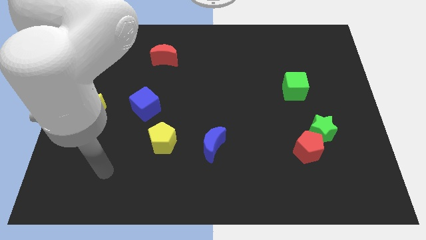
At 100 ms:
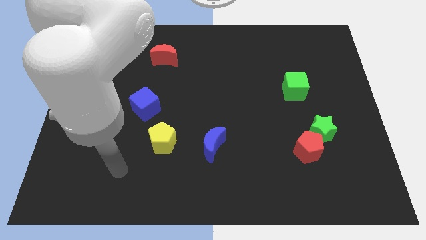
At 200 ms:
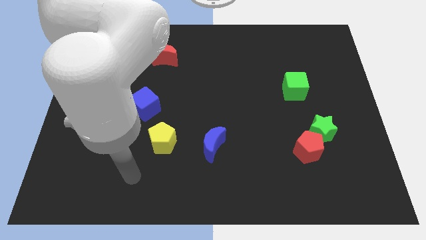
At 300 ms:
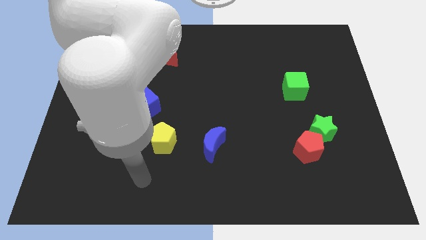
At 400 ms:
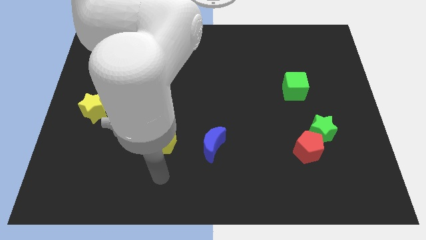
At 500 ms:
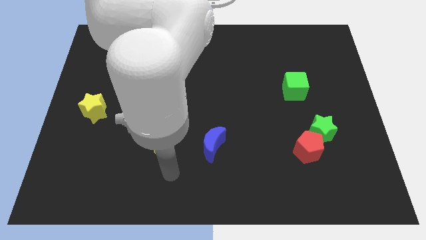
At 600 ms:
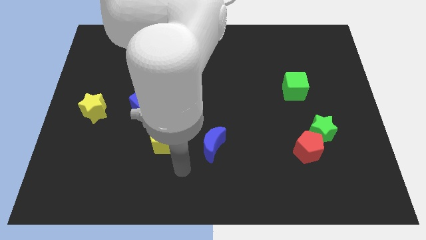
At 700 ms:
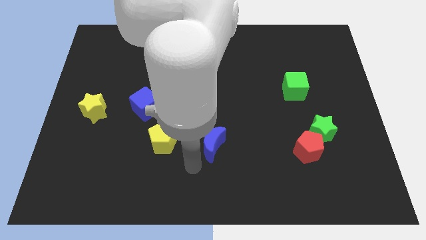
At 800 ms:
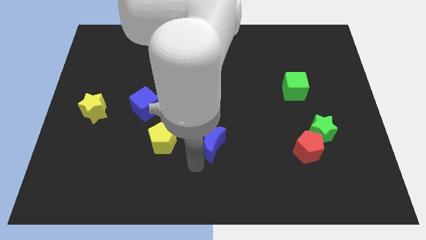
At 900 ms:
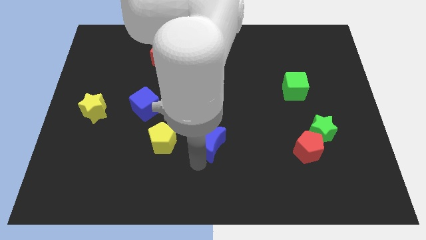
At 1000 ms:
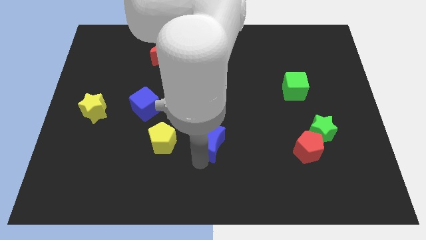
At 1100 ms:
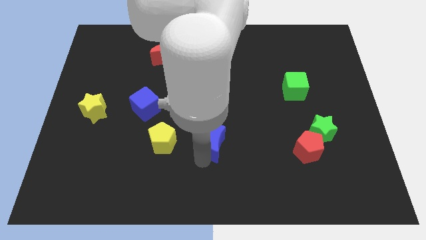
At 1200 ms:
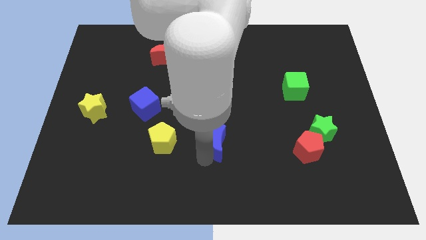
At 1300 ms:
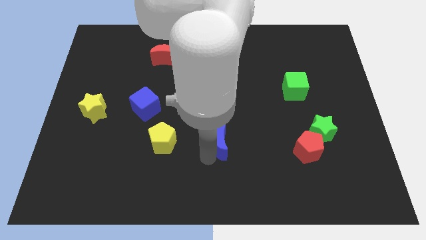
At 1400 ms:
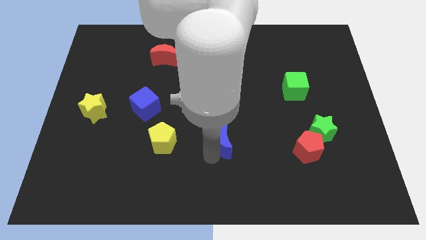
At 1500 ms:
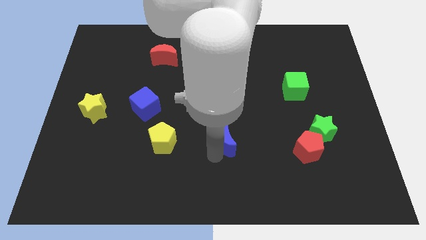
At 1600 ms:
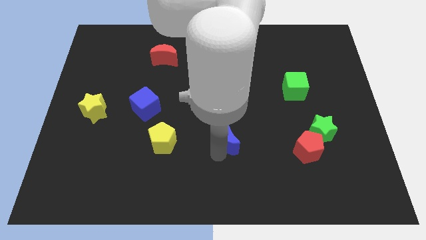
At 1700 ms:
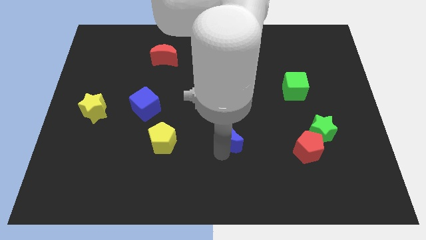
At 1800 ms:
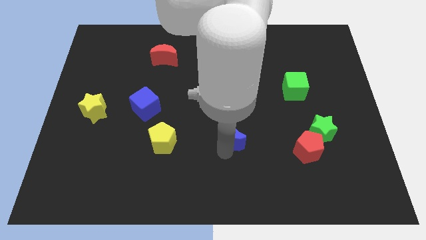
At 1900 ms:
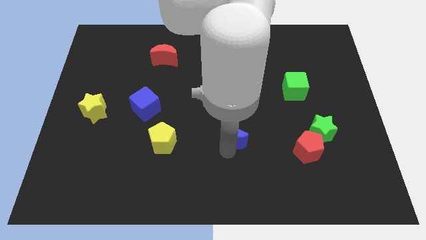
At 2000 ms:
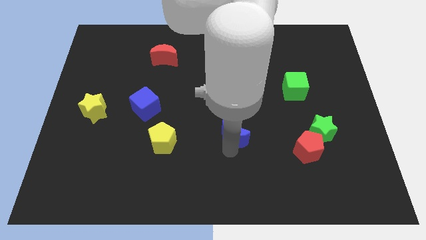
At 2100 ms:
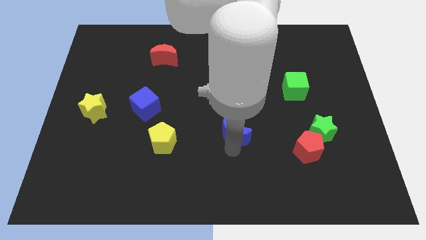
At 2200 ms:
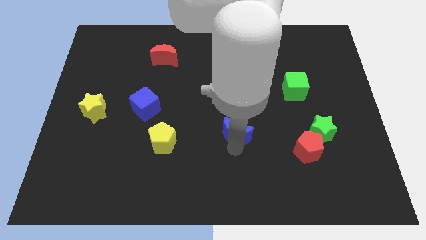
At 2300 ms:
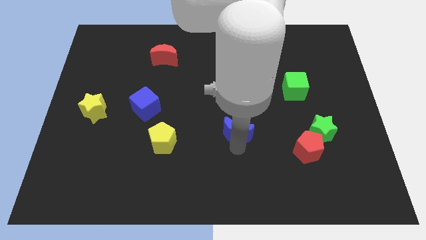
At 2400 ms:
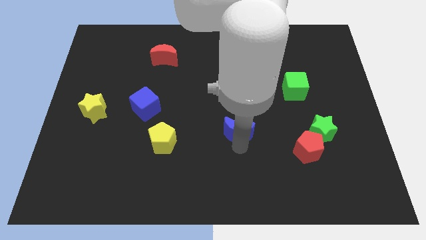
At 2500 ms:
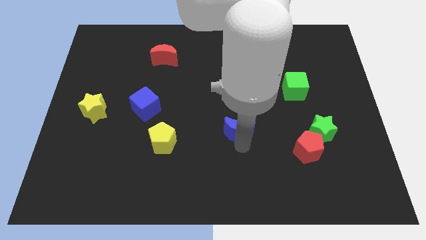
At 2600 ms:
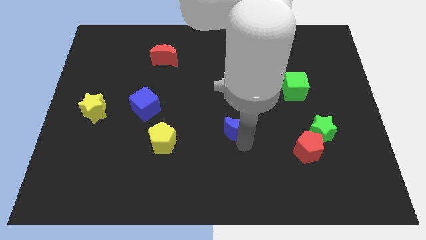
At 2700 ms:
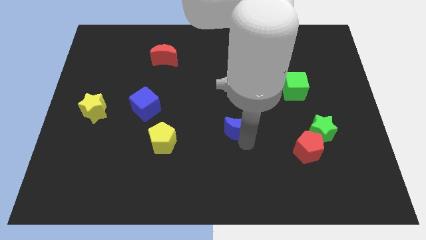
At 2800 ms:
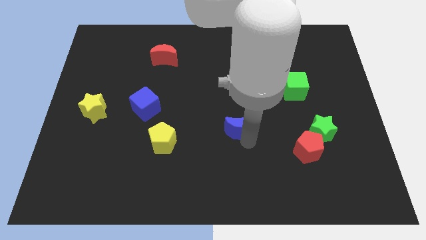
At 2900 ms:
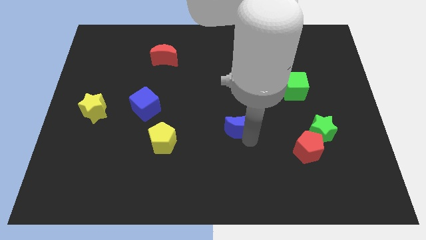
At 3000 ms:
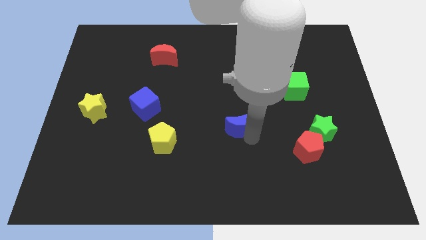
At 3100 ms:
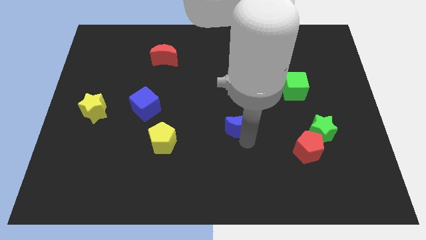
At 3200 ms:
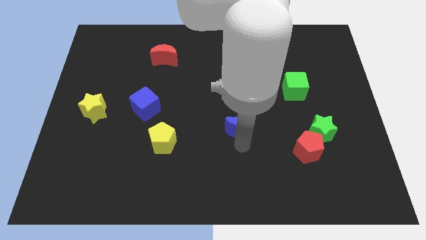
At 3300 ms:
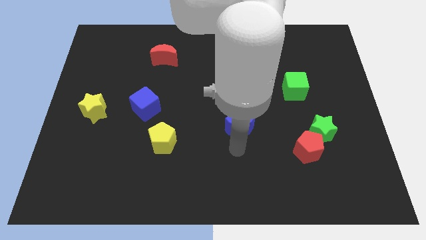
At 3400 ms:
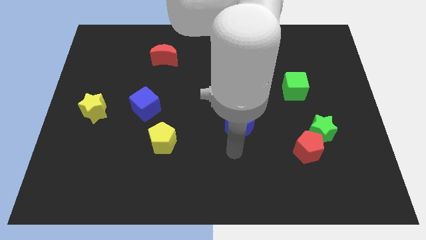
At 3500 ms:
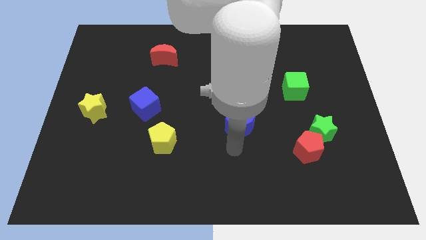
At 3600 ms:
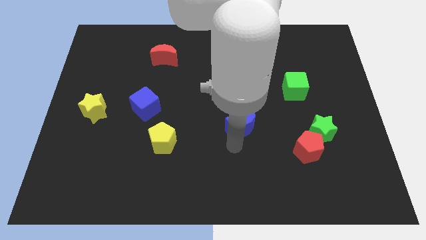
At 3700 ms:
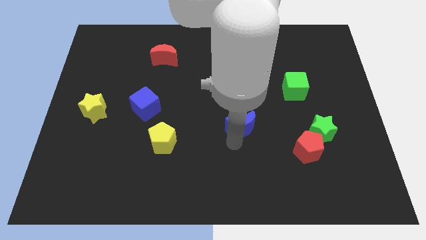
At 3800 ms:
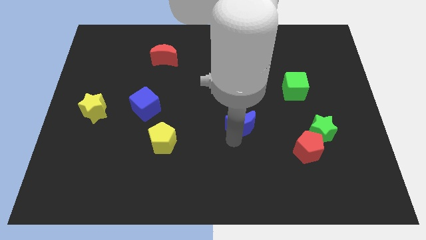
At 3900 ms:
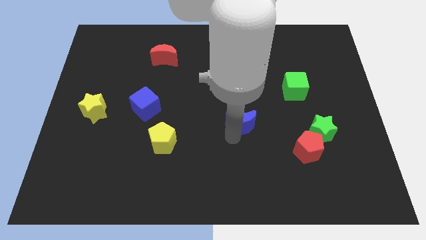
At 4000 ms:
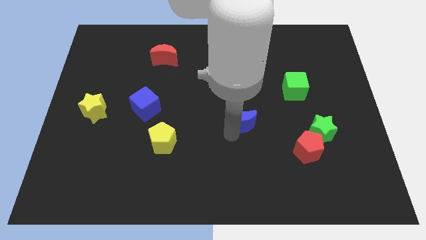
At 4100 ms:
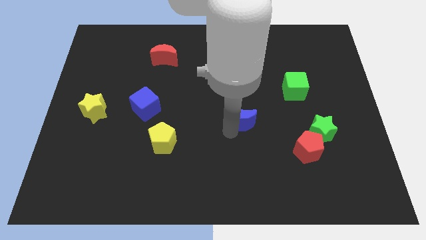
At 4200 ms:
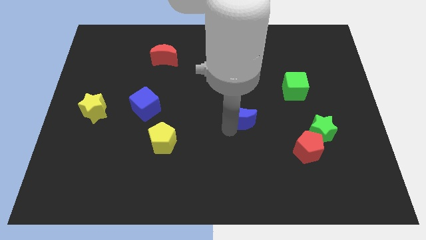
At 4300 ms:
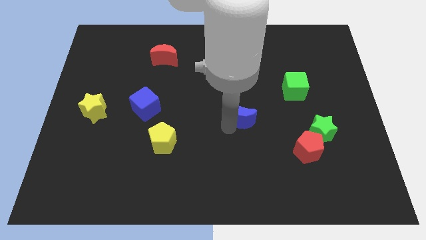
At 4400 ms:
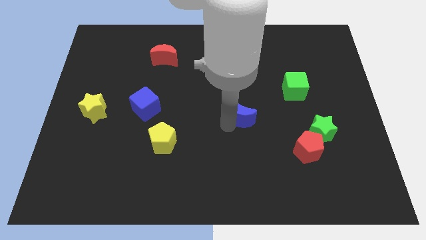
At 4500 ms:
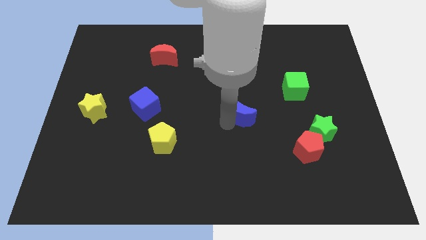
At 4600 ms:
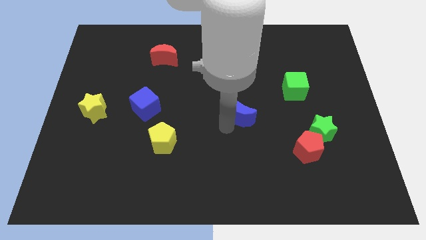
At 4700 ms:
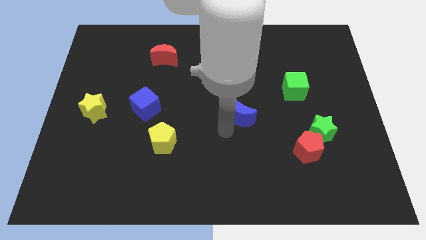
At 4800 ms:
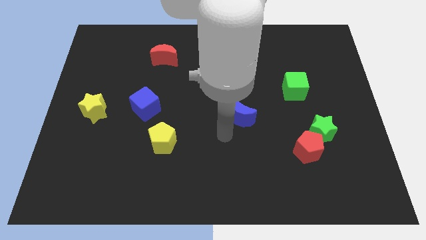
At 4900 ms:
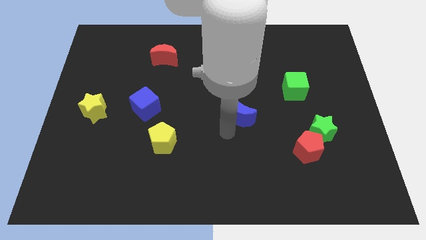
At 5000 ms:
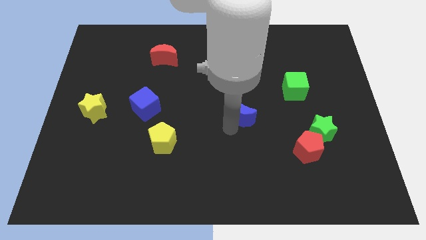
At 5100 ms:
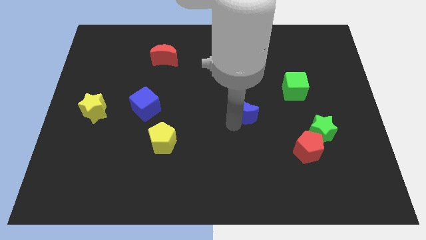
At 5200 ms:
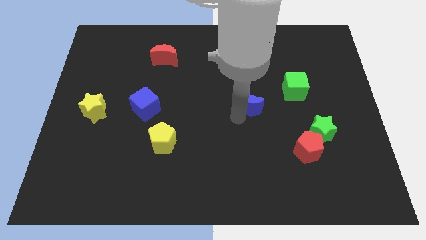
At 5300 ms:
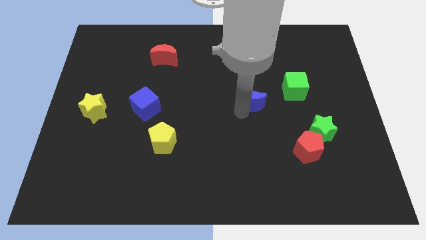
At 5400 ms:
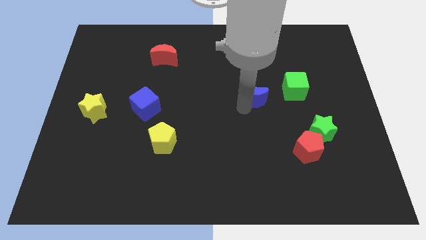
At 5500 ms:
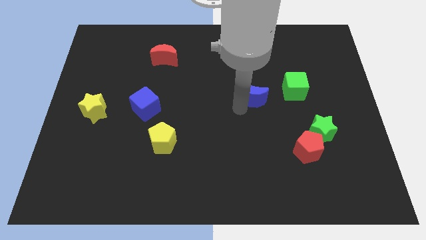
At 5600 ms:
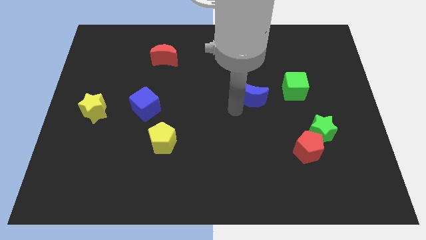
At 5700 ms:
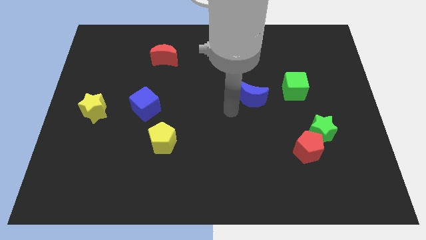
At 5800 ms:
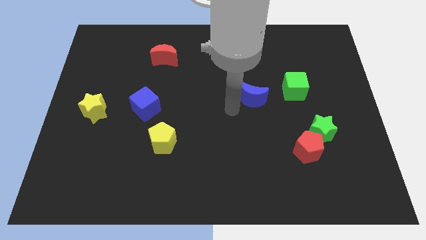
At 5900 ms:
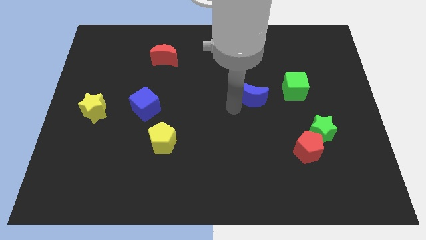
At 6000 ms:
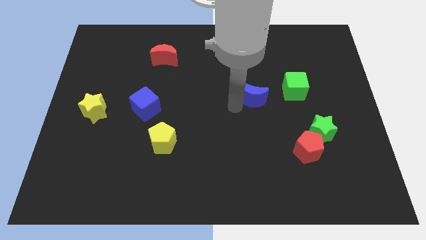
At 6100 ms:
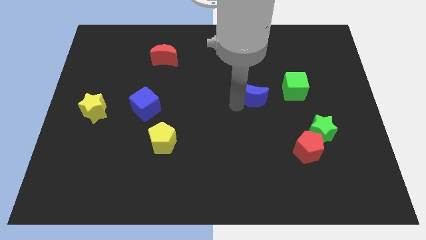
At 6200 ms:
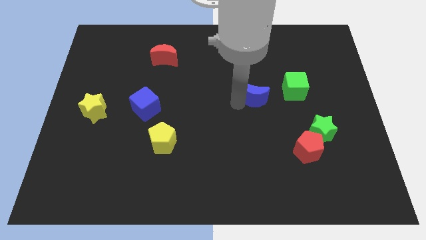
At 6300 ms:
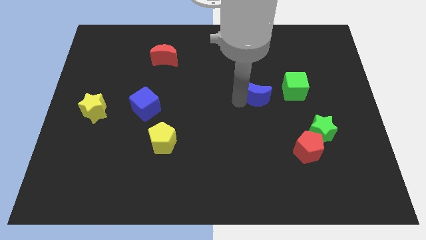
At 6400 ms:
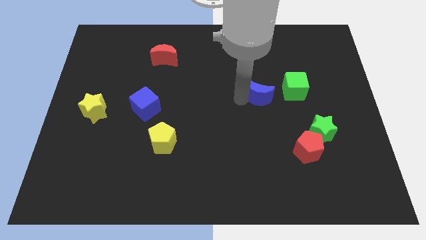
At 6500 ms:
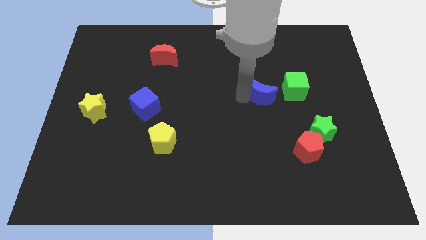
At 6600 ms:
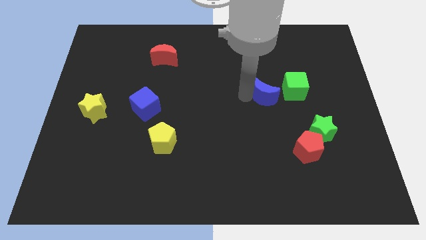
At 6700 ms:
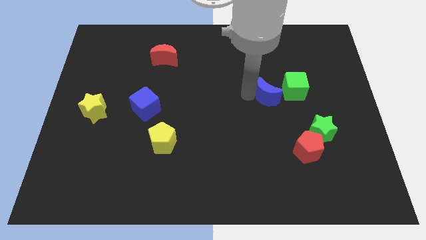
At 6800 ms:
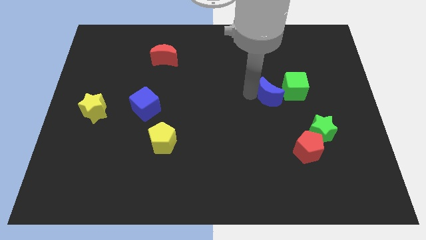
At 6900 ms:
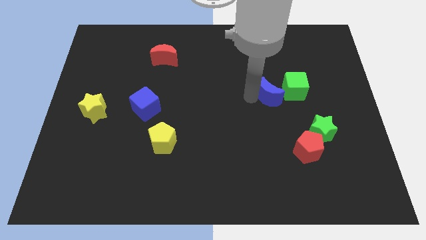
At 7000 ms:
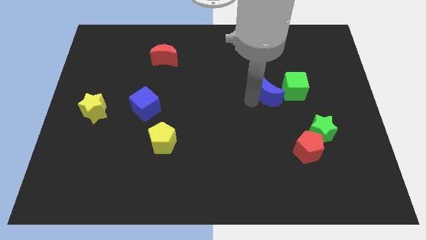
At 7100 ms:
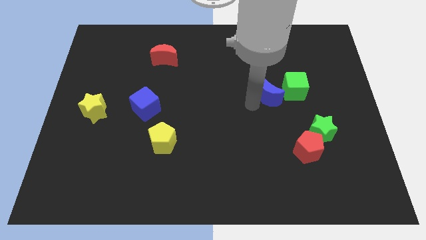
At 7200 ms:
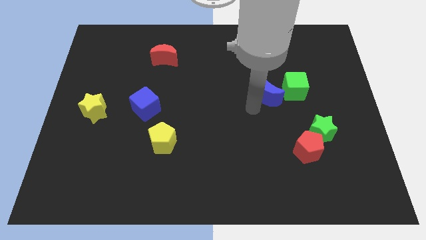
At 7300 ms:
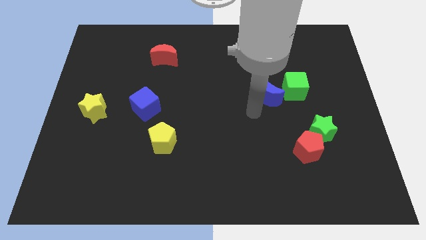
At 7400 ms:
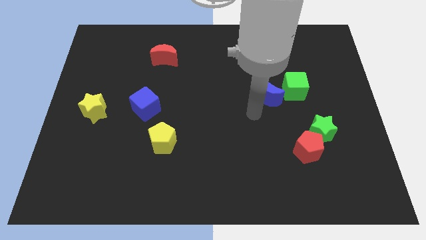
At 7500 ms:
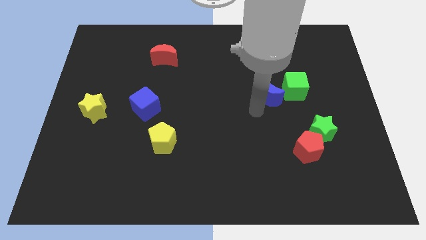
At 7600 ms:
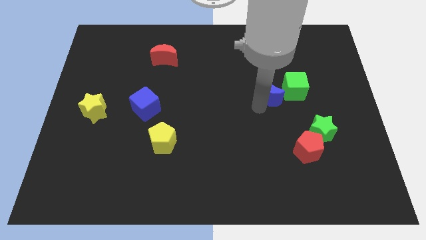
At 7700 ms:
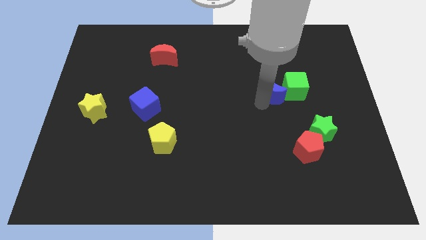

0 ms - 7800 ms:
slide the blue moon upwards and to the right

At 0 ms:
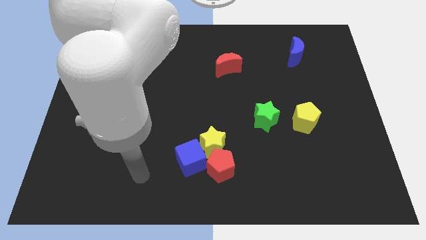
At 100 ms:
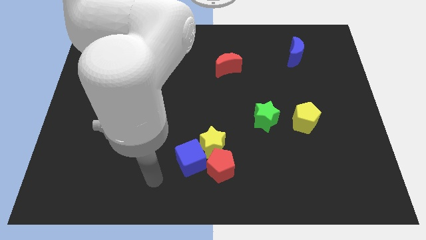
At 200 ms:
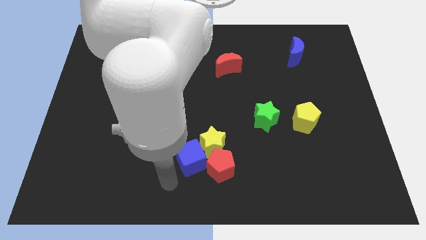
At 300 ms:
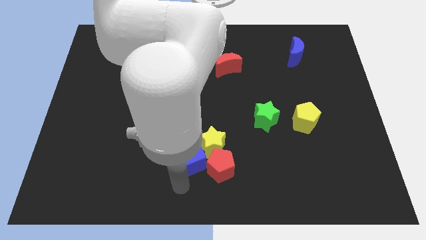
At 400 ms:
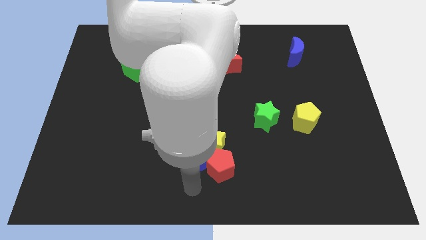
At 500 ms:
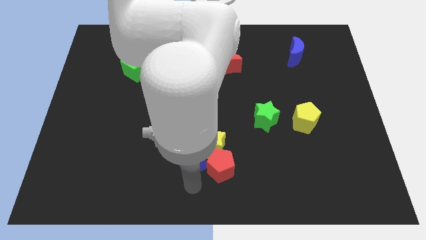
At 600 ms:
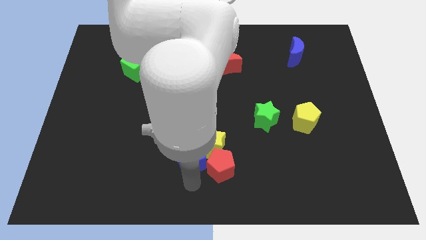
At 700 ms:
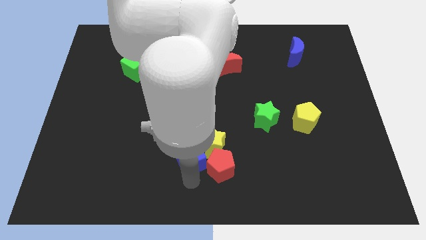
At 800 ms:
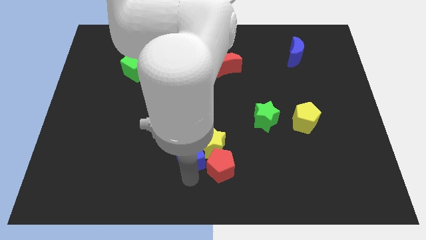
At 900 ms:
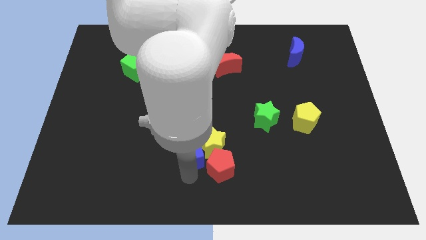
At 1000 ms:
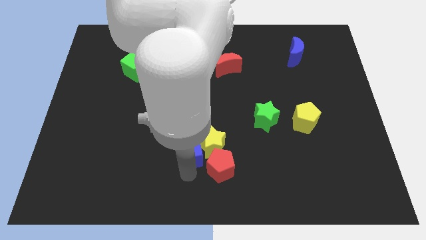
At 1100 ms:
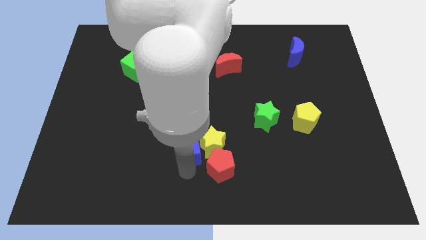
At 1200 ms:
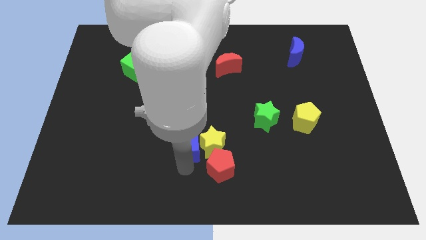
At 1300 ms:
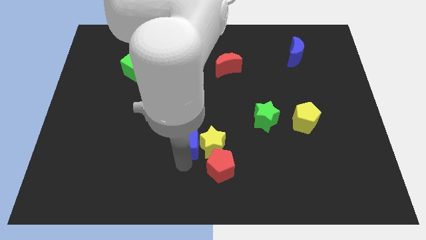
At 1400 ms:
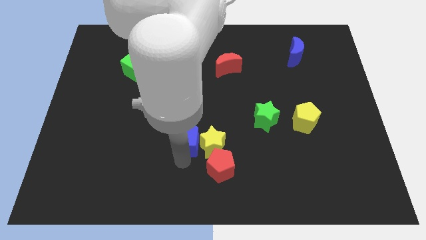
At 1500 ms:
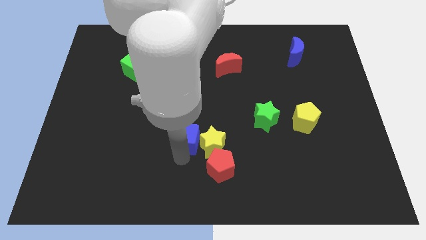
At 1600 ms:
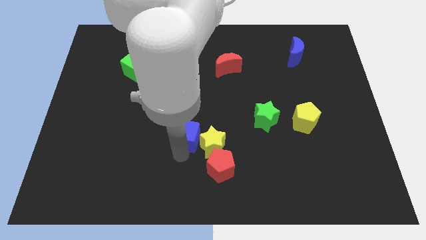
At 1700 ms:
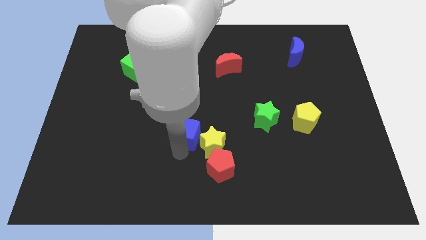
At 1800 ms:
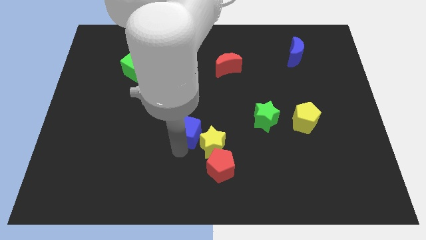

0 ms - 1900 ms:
push the blue cube a bit up
